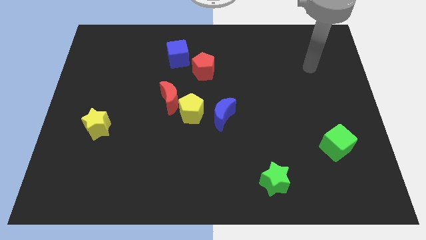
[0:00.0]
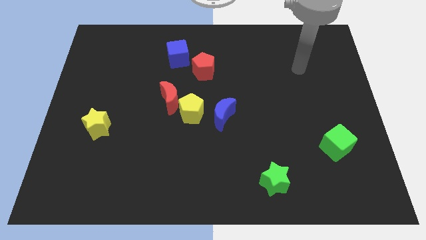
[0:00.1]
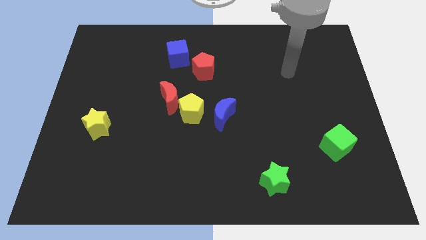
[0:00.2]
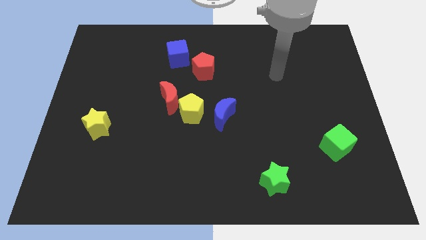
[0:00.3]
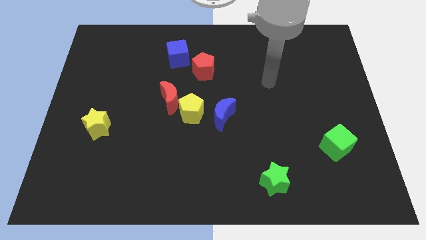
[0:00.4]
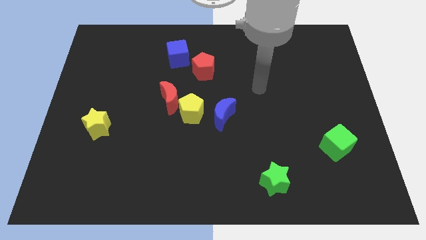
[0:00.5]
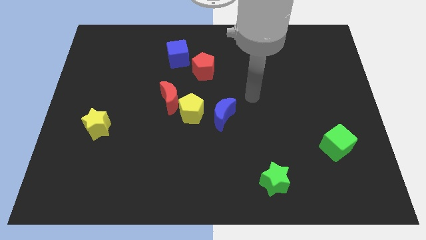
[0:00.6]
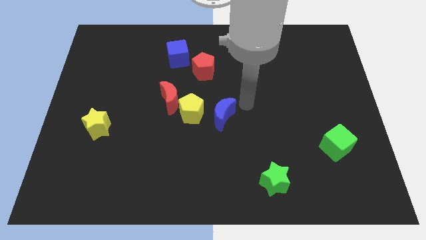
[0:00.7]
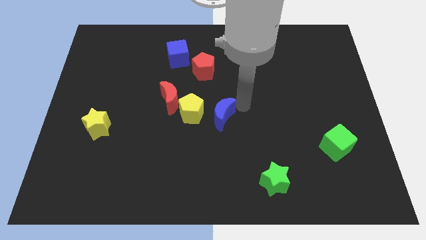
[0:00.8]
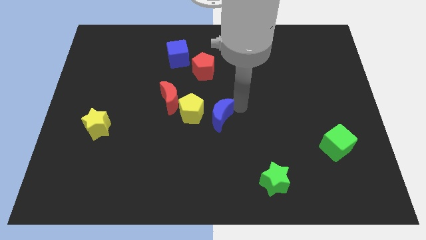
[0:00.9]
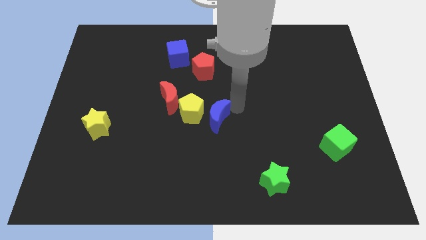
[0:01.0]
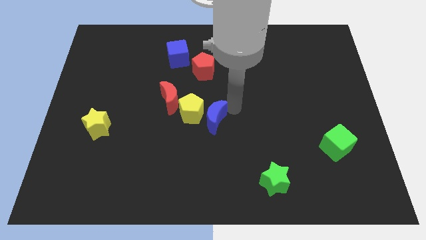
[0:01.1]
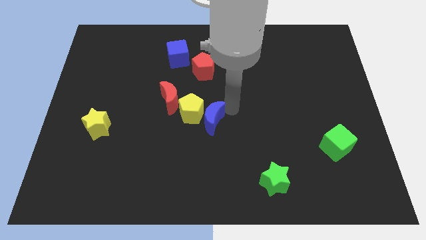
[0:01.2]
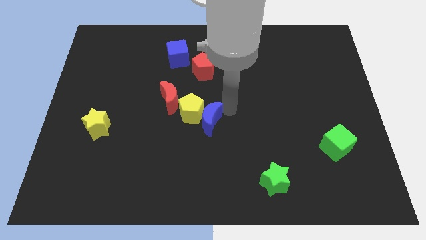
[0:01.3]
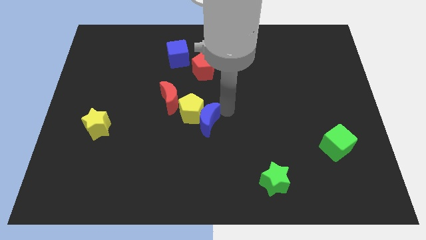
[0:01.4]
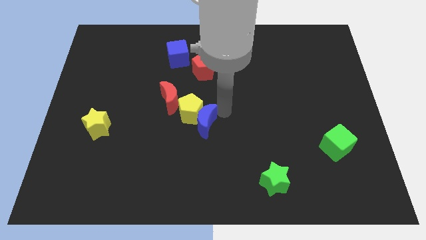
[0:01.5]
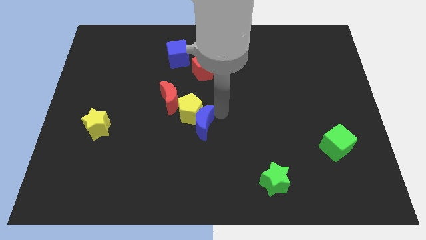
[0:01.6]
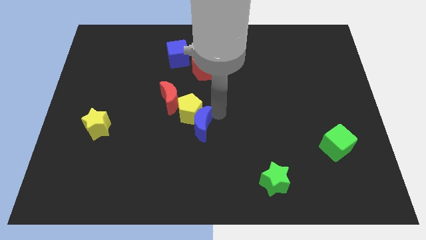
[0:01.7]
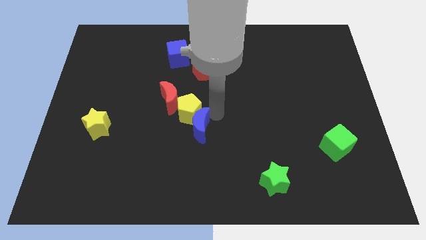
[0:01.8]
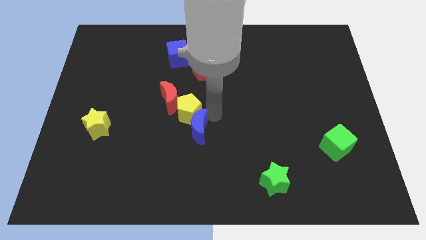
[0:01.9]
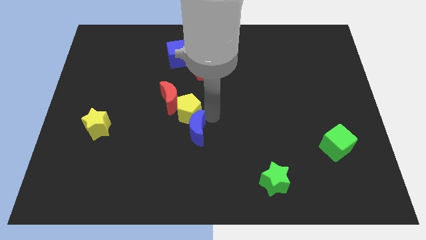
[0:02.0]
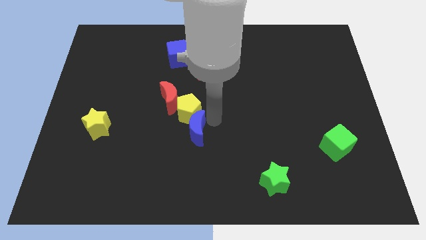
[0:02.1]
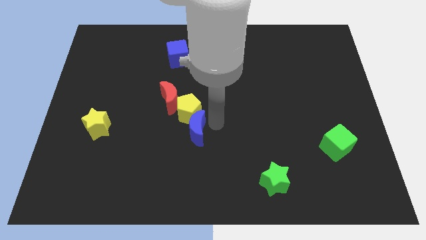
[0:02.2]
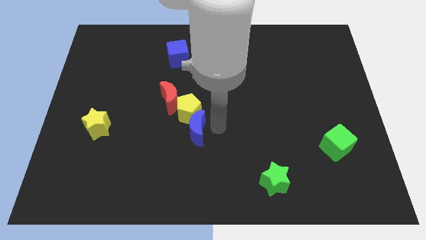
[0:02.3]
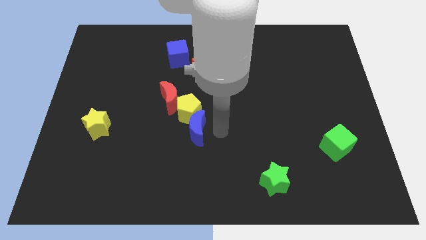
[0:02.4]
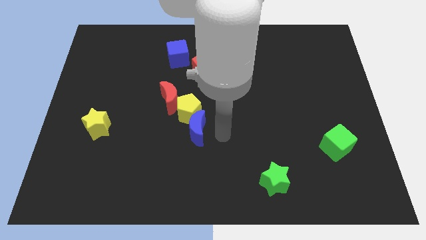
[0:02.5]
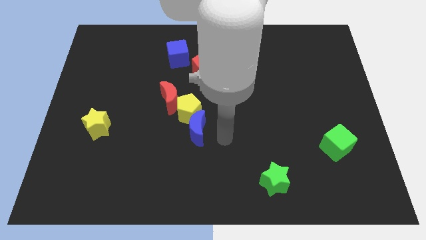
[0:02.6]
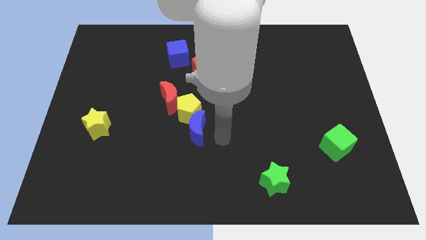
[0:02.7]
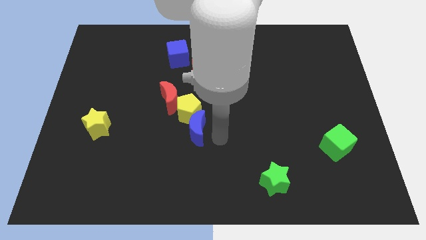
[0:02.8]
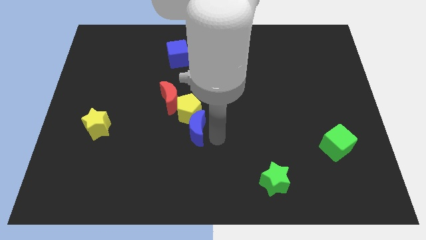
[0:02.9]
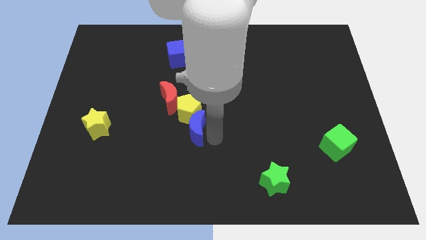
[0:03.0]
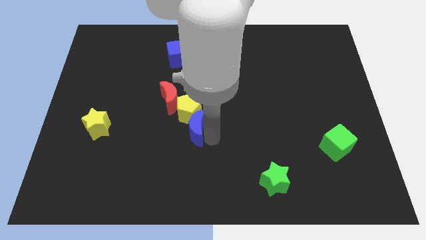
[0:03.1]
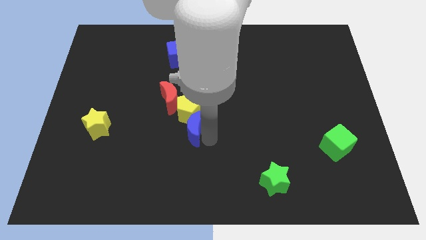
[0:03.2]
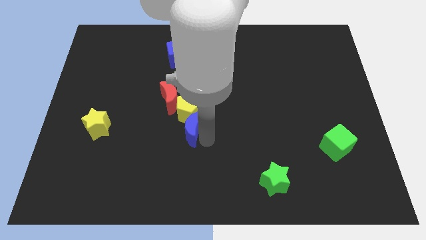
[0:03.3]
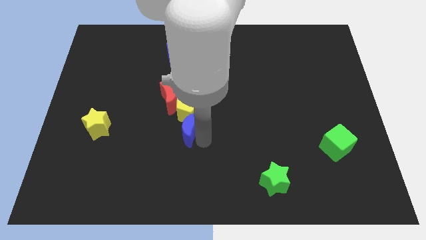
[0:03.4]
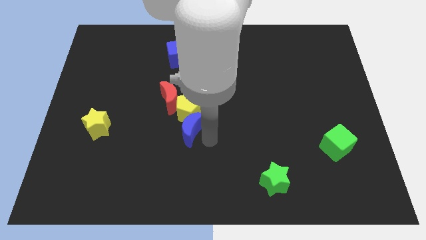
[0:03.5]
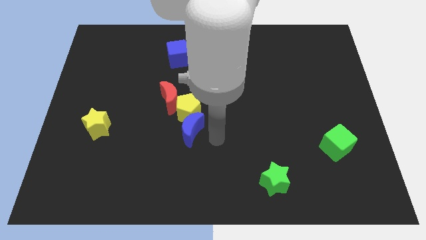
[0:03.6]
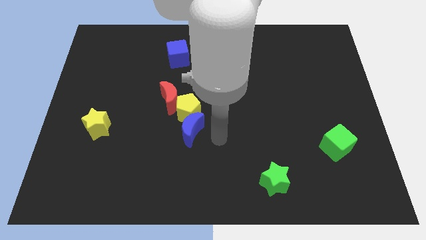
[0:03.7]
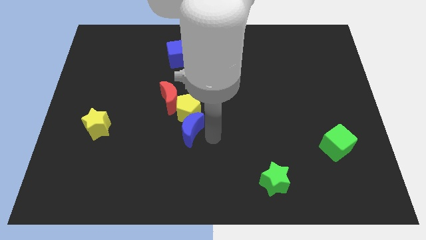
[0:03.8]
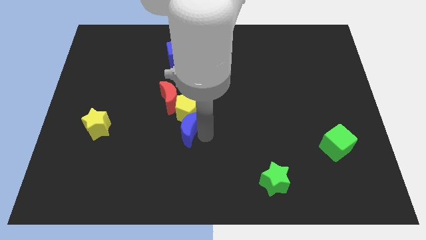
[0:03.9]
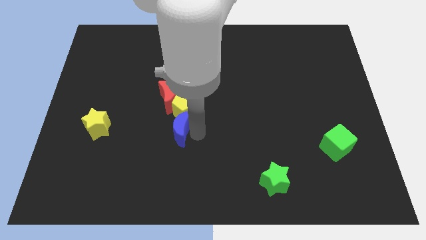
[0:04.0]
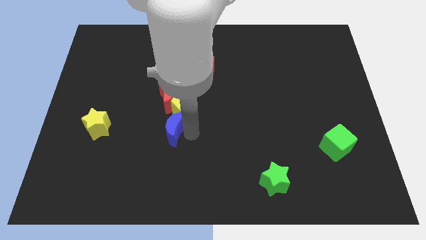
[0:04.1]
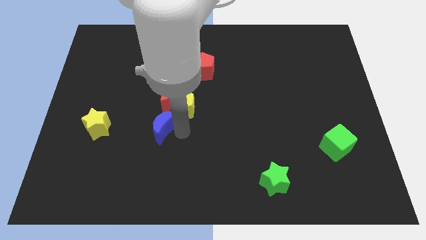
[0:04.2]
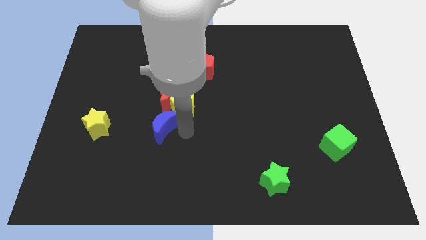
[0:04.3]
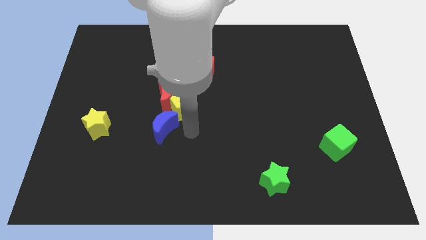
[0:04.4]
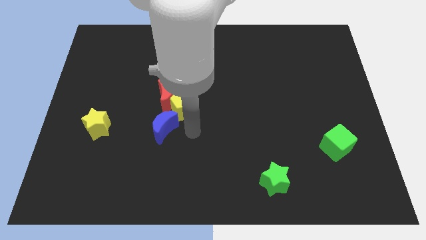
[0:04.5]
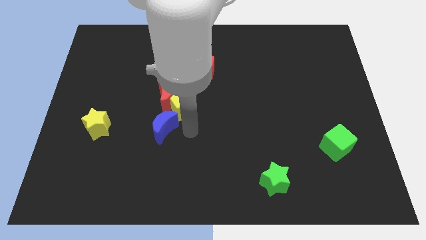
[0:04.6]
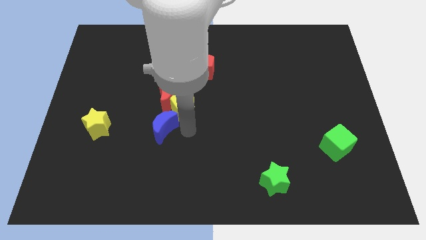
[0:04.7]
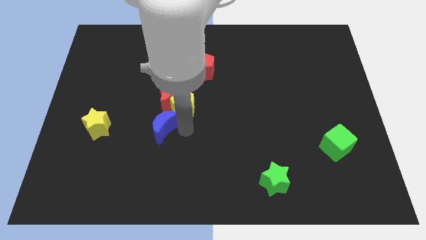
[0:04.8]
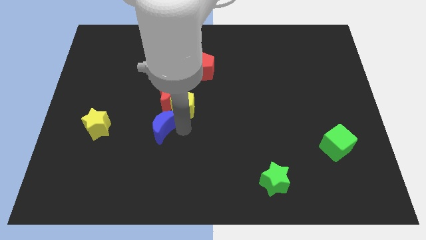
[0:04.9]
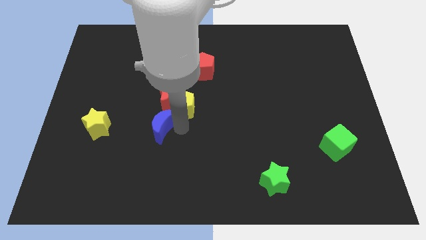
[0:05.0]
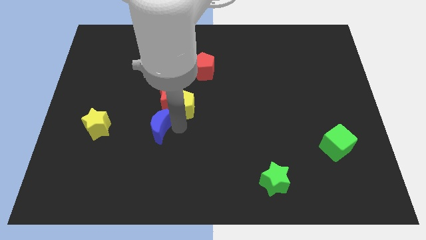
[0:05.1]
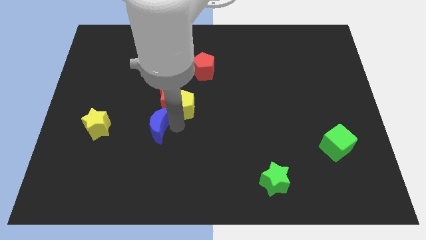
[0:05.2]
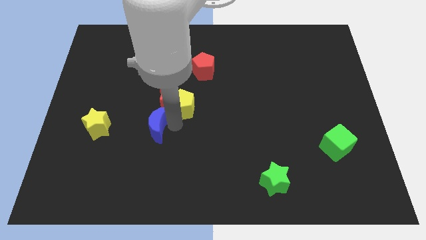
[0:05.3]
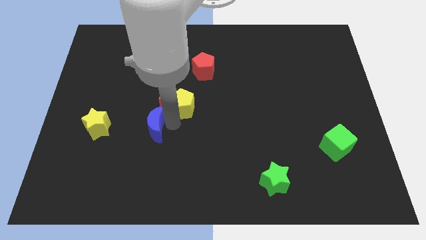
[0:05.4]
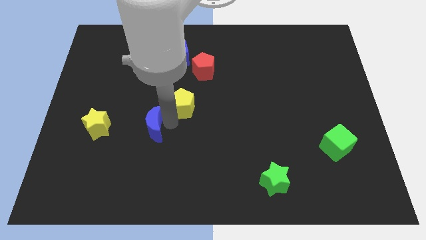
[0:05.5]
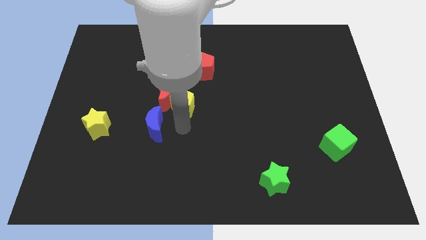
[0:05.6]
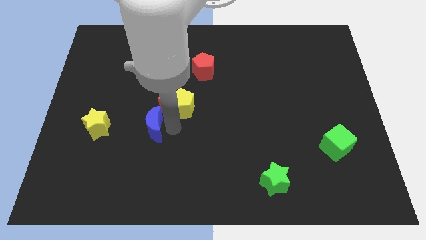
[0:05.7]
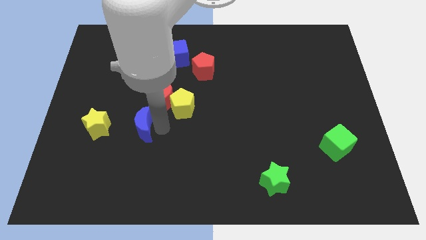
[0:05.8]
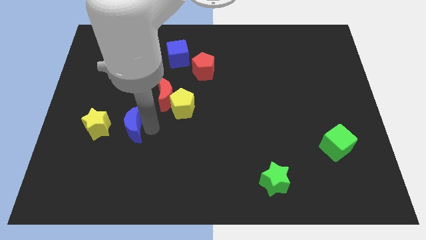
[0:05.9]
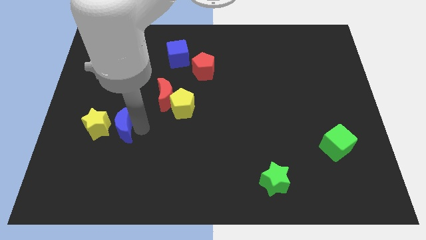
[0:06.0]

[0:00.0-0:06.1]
put the blue moon to the yellow star

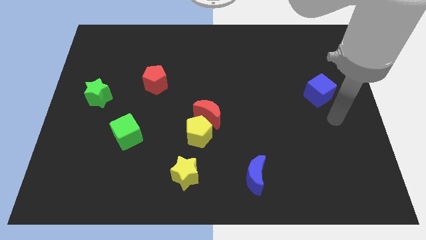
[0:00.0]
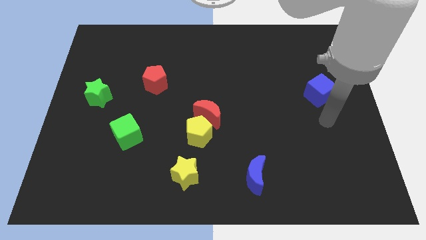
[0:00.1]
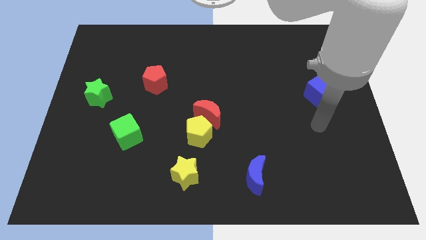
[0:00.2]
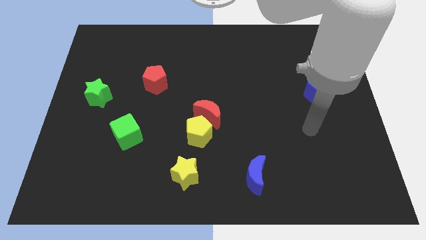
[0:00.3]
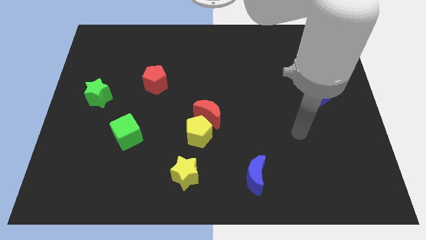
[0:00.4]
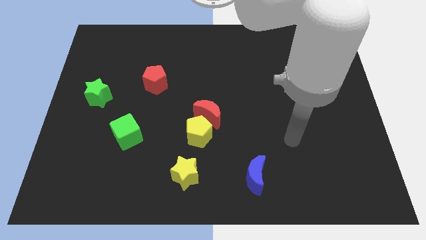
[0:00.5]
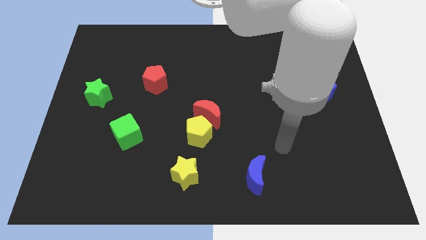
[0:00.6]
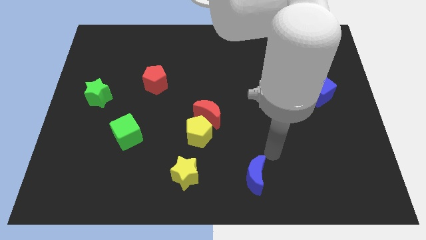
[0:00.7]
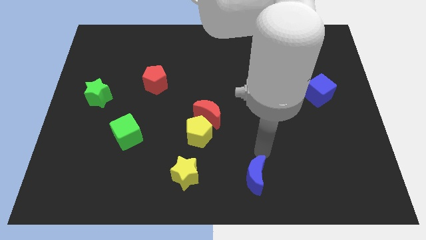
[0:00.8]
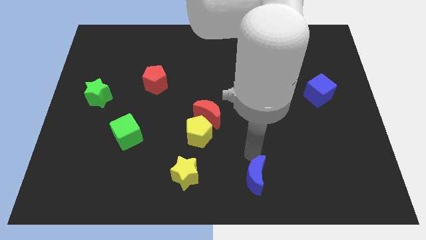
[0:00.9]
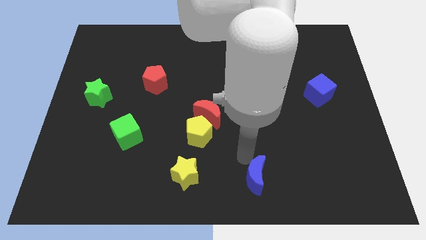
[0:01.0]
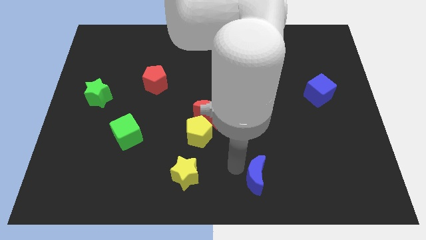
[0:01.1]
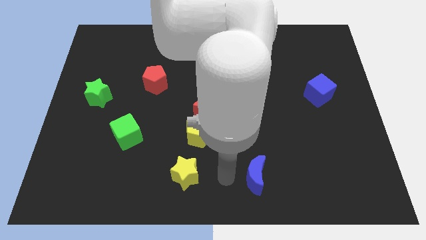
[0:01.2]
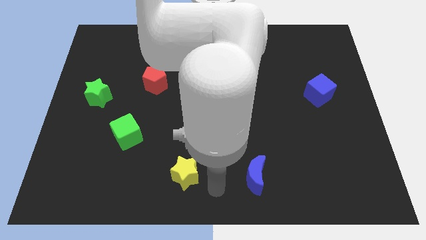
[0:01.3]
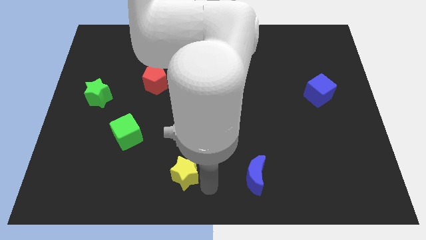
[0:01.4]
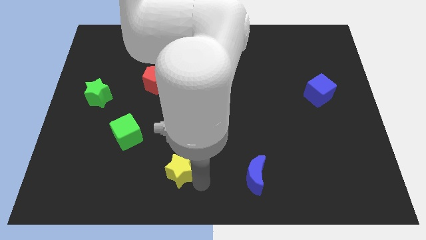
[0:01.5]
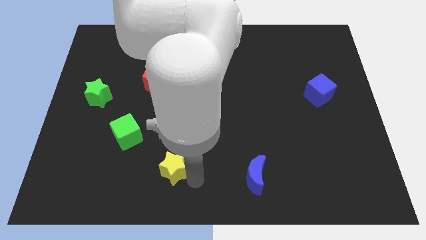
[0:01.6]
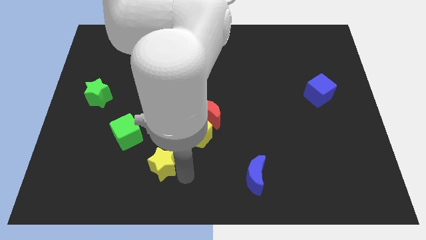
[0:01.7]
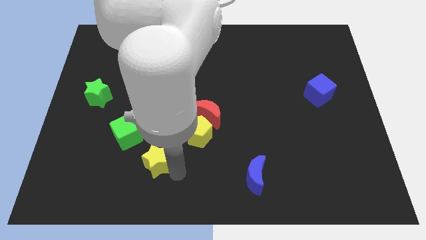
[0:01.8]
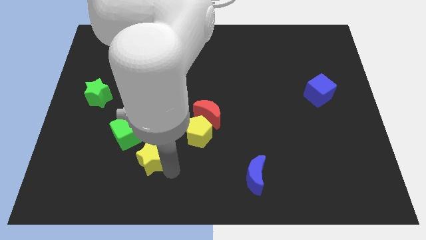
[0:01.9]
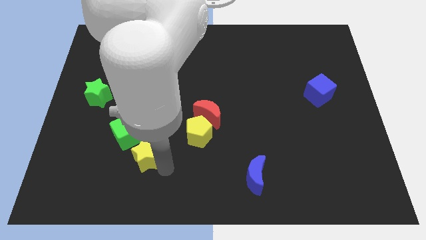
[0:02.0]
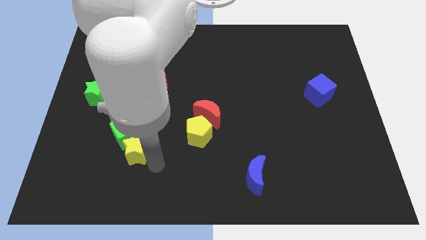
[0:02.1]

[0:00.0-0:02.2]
put the yellow star close to the green cube
